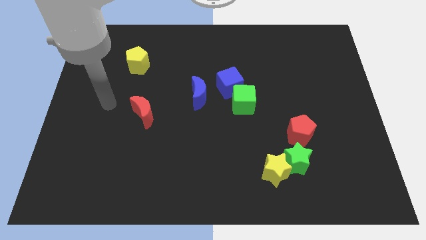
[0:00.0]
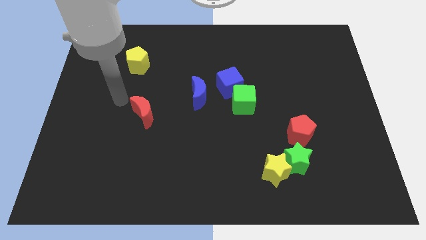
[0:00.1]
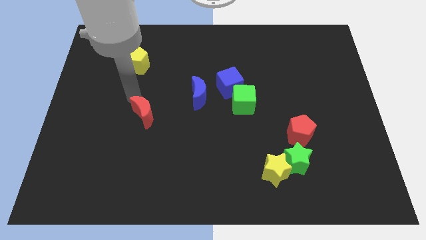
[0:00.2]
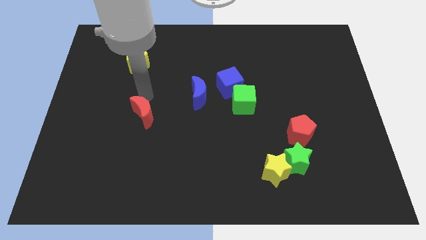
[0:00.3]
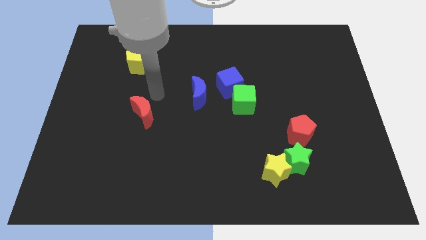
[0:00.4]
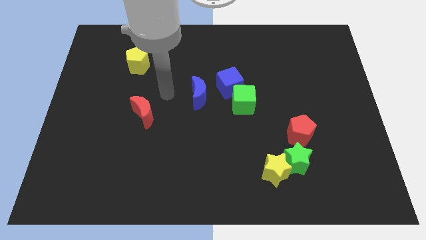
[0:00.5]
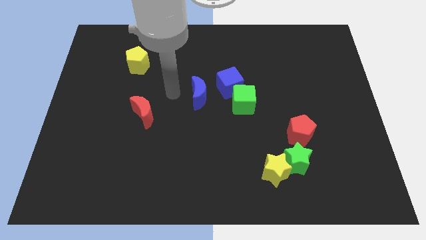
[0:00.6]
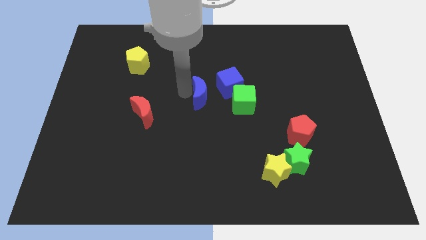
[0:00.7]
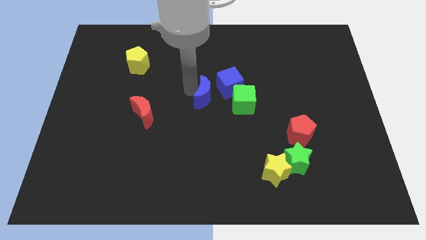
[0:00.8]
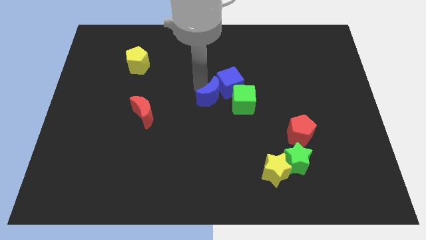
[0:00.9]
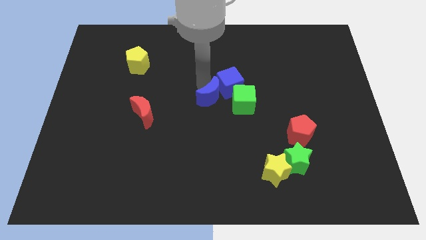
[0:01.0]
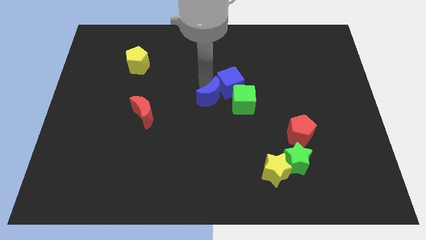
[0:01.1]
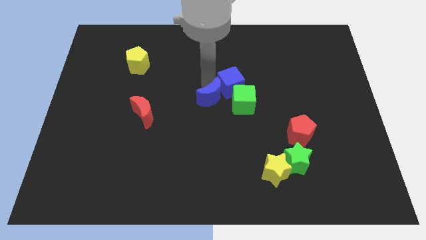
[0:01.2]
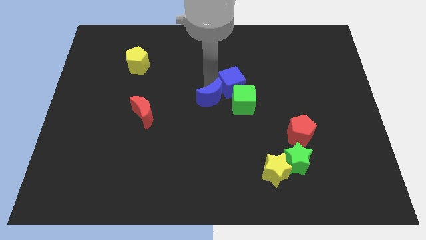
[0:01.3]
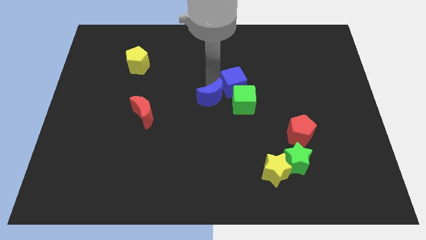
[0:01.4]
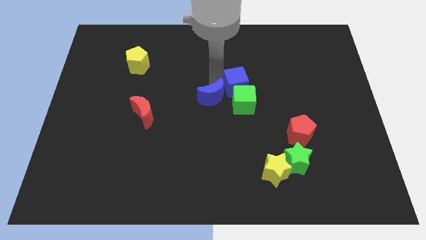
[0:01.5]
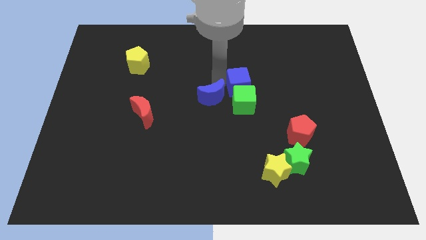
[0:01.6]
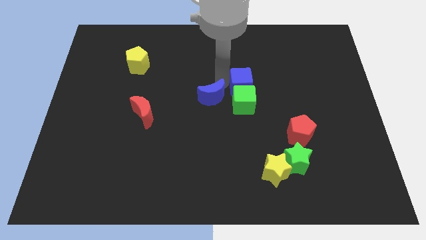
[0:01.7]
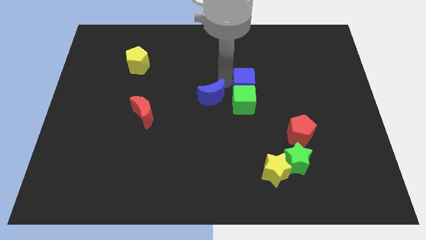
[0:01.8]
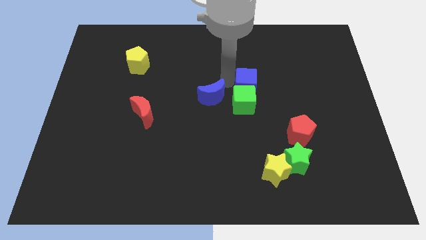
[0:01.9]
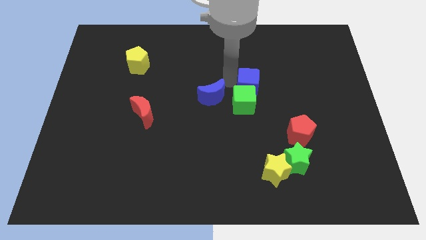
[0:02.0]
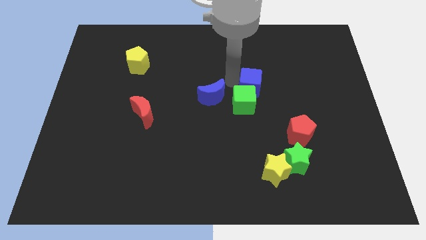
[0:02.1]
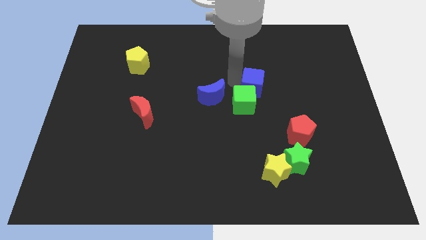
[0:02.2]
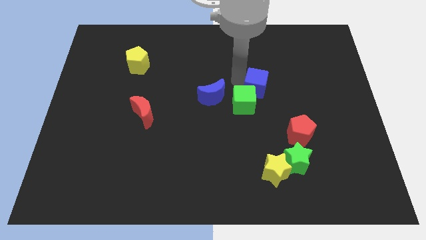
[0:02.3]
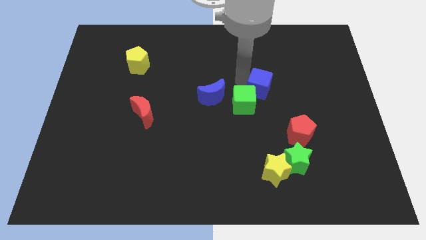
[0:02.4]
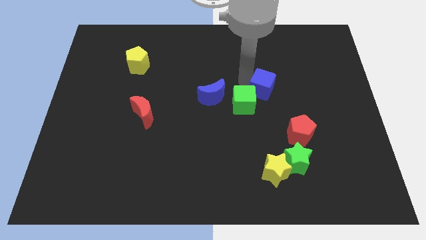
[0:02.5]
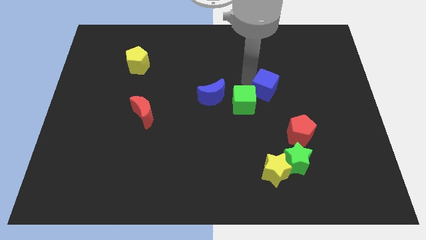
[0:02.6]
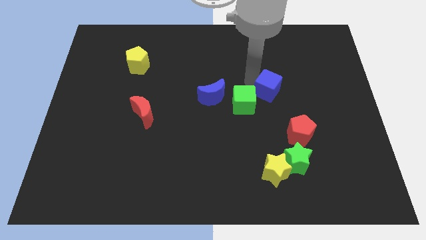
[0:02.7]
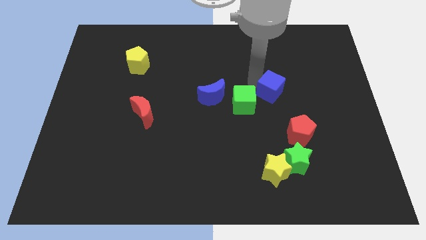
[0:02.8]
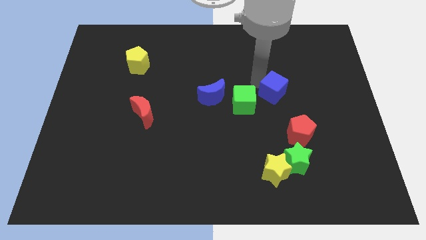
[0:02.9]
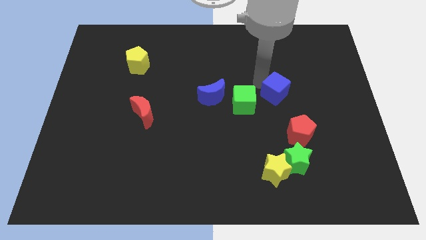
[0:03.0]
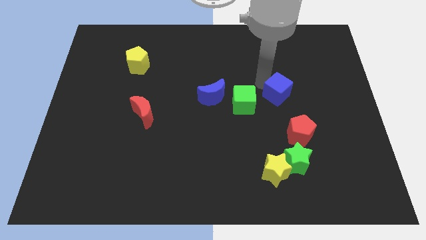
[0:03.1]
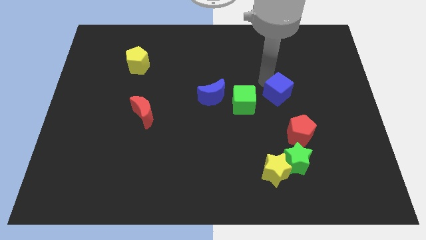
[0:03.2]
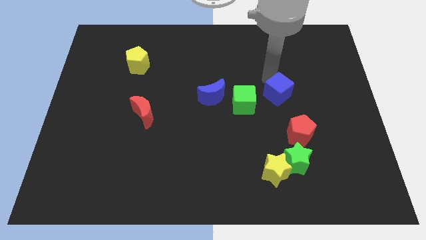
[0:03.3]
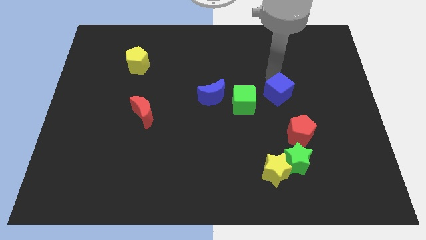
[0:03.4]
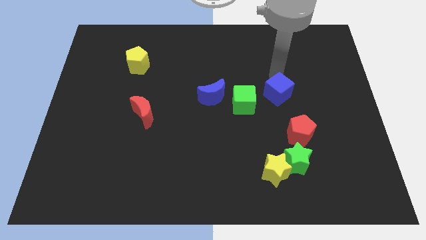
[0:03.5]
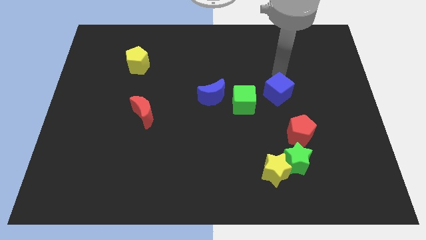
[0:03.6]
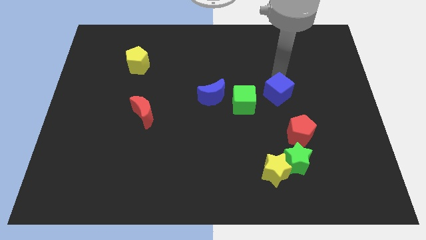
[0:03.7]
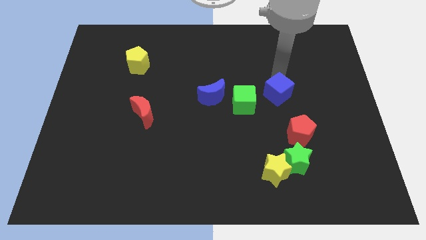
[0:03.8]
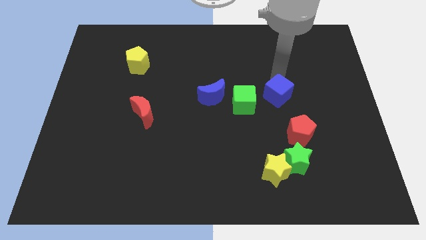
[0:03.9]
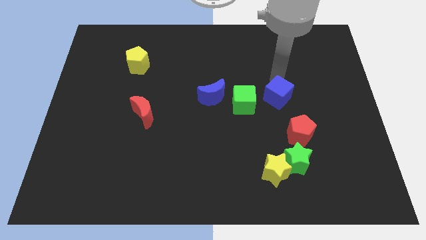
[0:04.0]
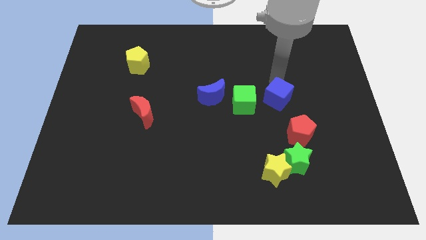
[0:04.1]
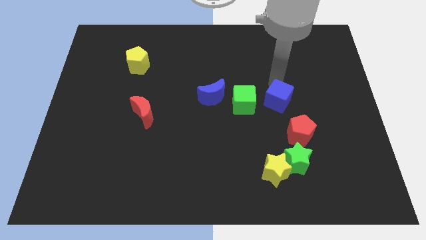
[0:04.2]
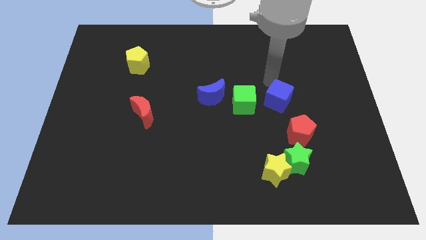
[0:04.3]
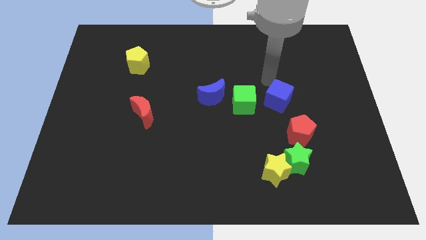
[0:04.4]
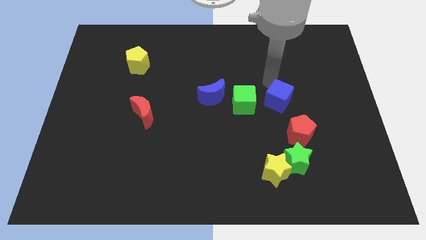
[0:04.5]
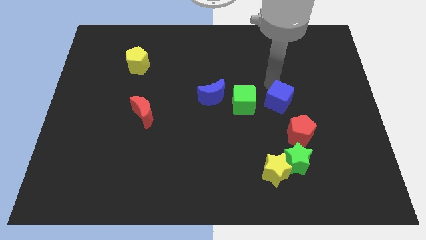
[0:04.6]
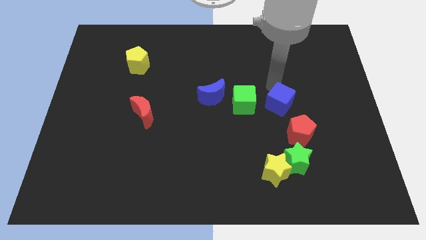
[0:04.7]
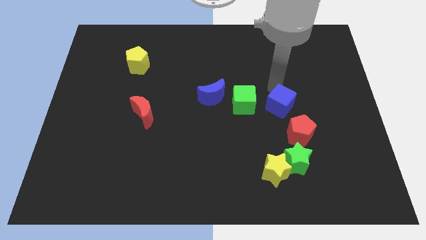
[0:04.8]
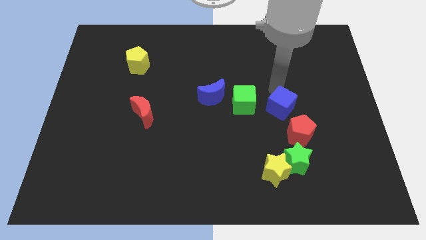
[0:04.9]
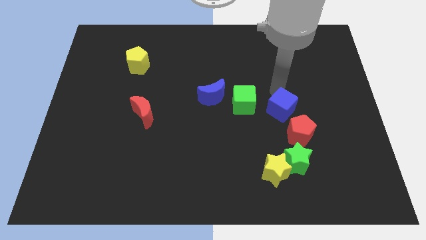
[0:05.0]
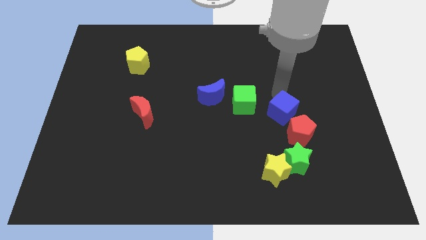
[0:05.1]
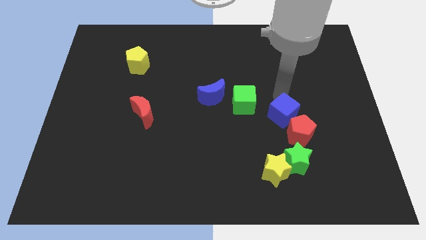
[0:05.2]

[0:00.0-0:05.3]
push the blue cube to the red pentagon

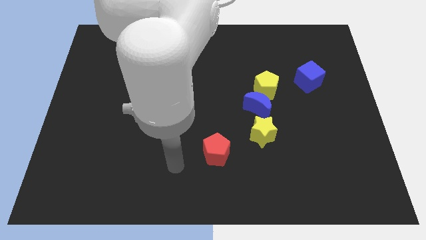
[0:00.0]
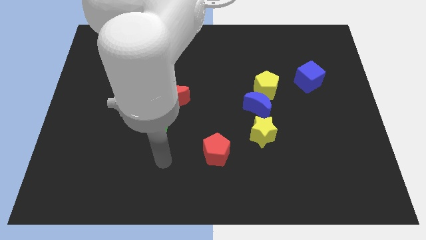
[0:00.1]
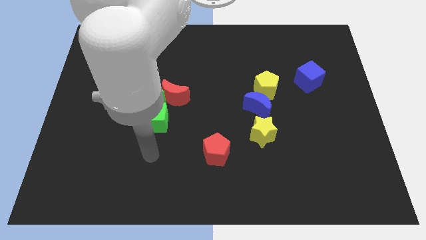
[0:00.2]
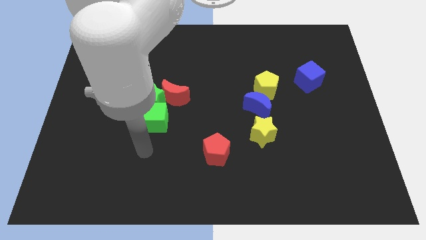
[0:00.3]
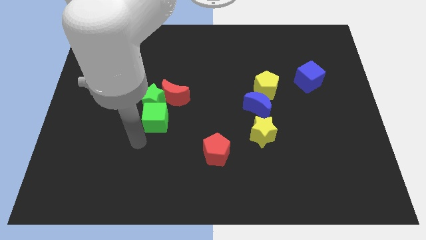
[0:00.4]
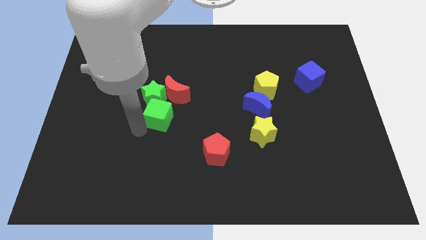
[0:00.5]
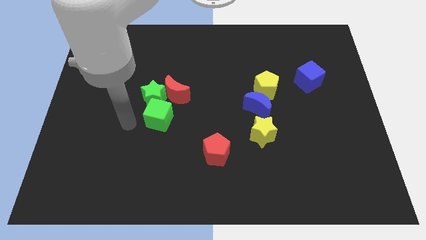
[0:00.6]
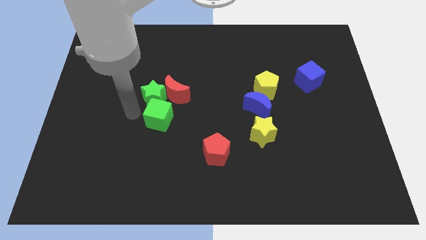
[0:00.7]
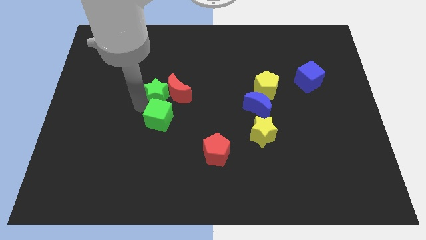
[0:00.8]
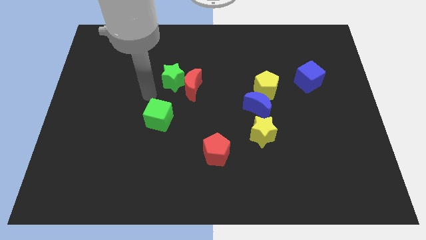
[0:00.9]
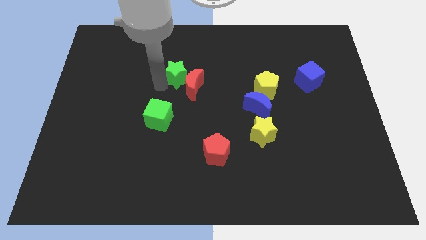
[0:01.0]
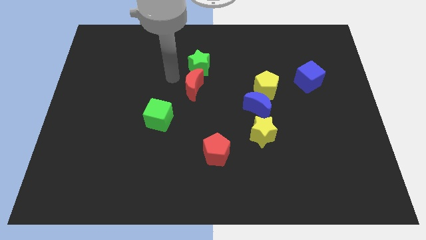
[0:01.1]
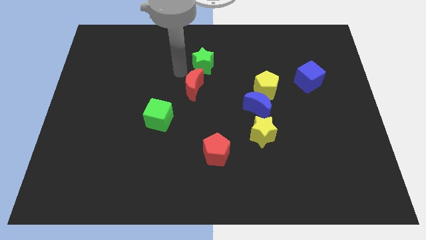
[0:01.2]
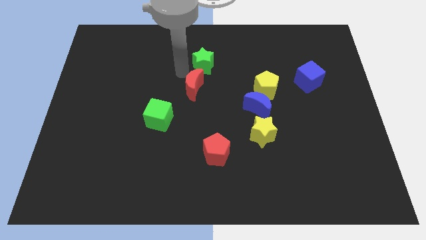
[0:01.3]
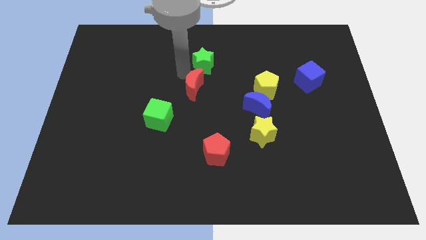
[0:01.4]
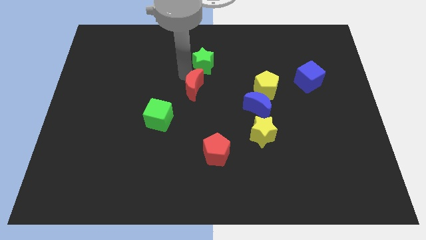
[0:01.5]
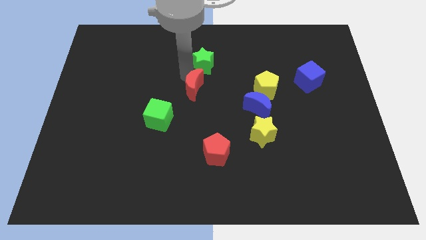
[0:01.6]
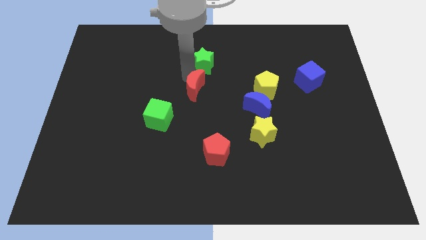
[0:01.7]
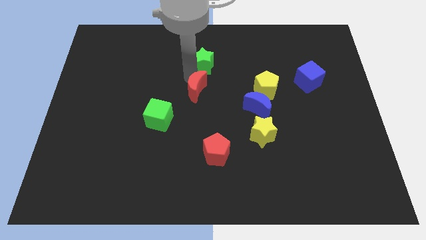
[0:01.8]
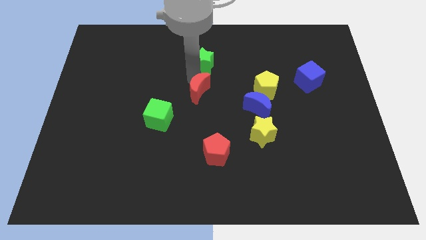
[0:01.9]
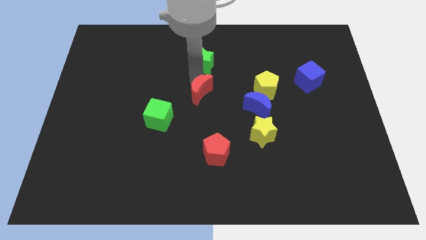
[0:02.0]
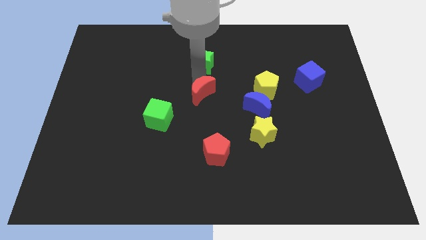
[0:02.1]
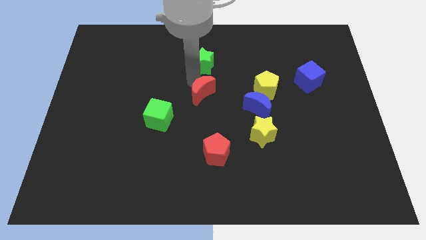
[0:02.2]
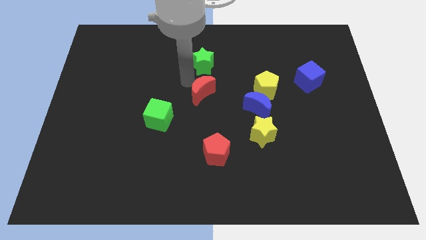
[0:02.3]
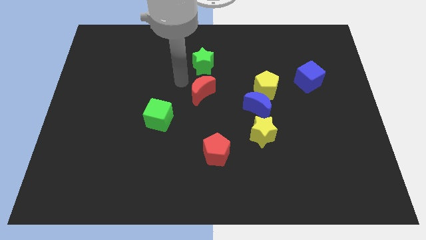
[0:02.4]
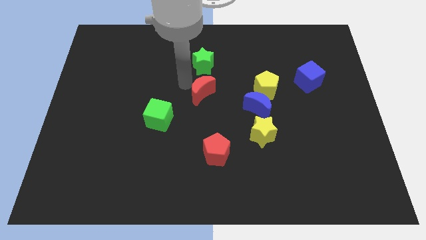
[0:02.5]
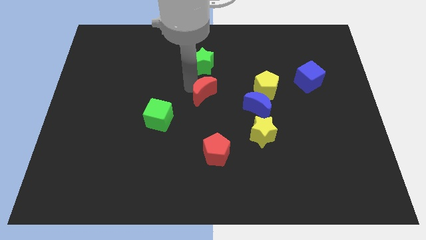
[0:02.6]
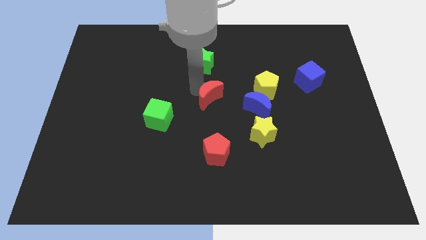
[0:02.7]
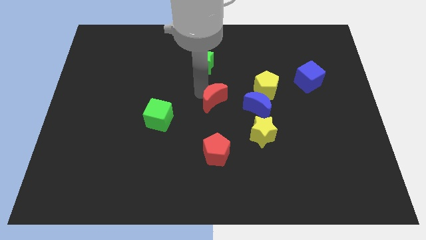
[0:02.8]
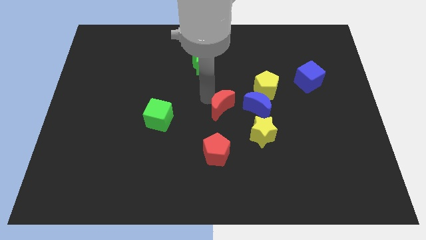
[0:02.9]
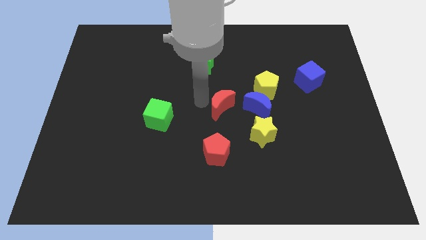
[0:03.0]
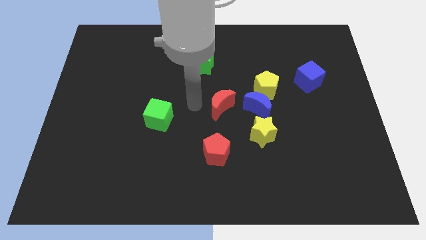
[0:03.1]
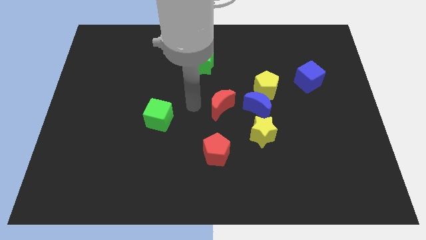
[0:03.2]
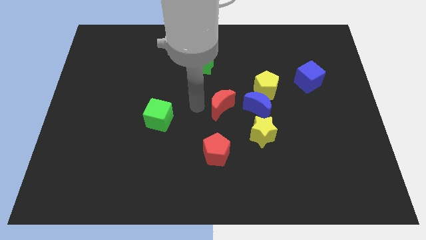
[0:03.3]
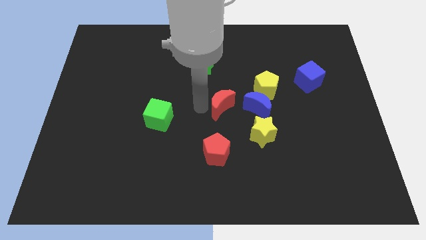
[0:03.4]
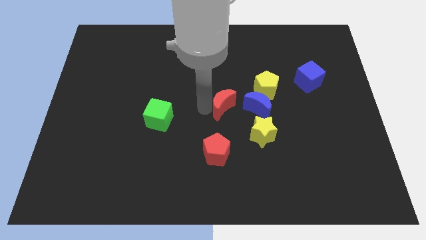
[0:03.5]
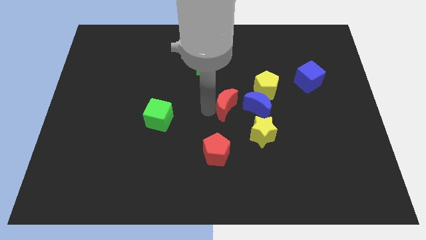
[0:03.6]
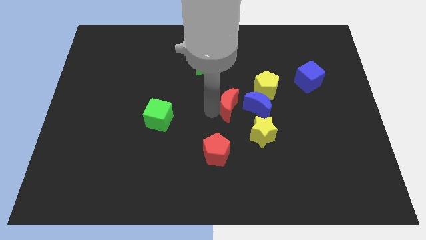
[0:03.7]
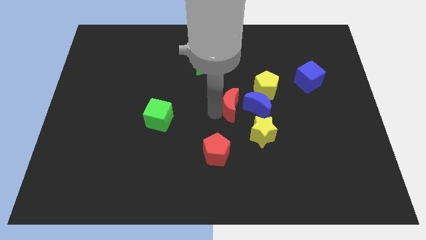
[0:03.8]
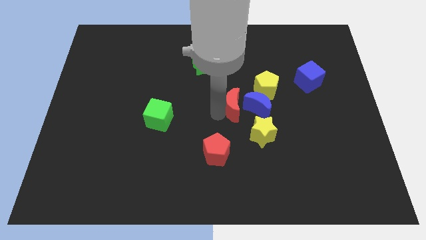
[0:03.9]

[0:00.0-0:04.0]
push the red moon to the blue moon
